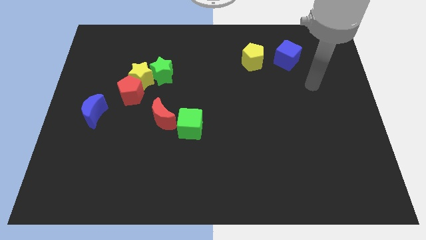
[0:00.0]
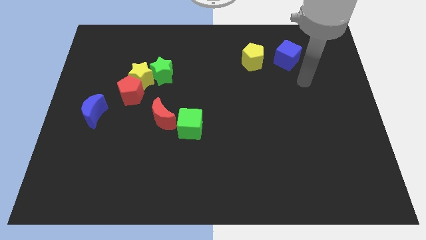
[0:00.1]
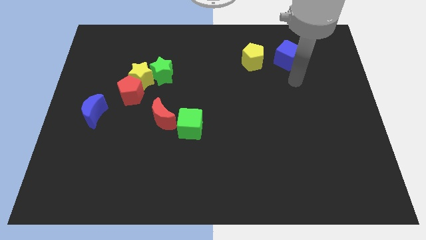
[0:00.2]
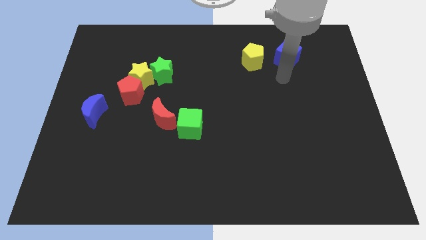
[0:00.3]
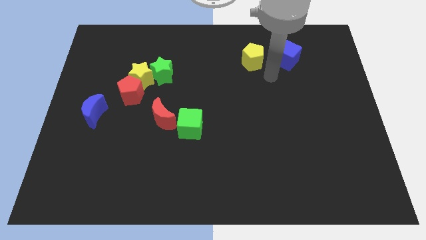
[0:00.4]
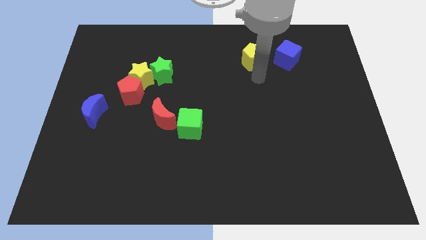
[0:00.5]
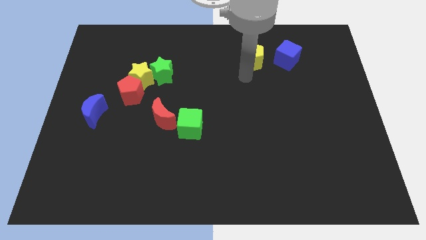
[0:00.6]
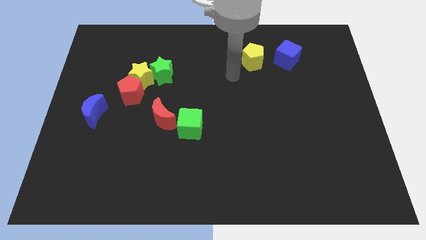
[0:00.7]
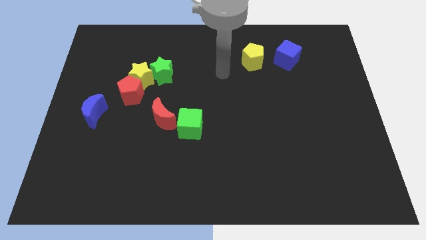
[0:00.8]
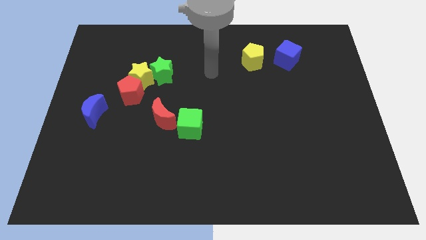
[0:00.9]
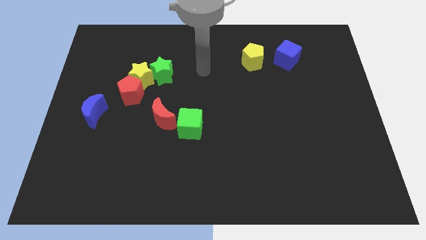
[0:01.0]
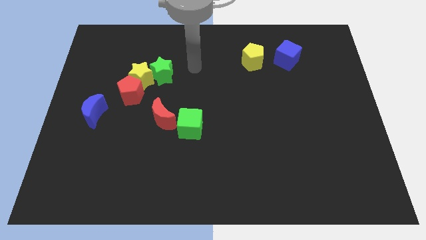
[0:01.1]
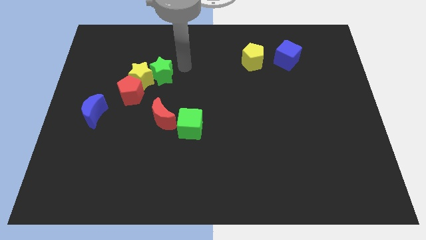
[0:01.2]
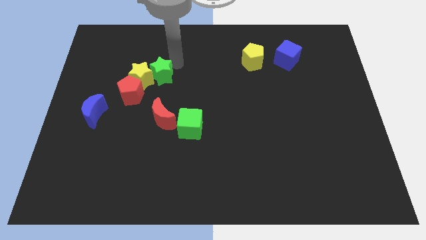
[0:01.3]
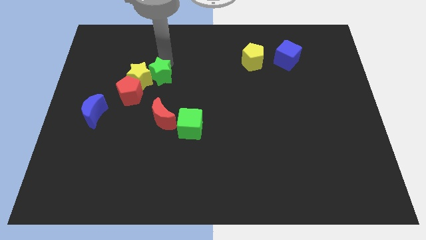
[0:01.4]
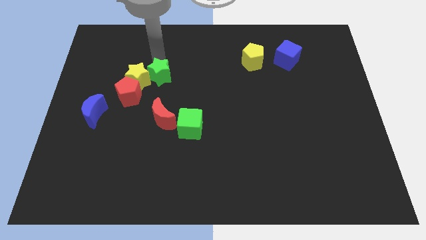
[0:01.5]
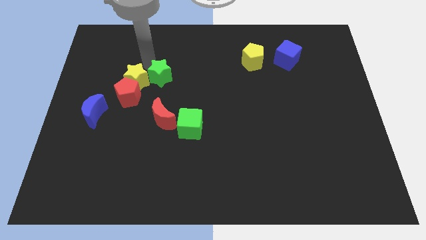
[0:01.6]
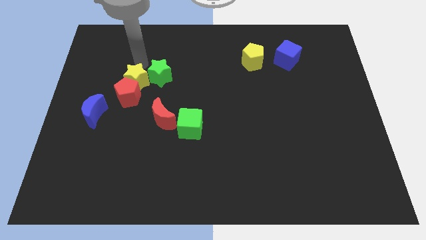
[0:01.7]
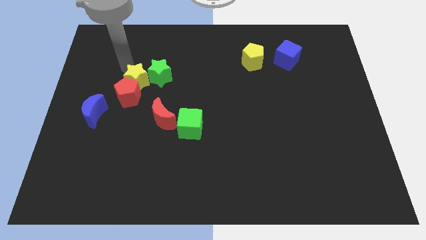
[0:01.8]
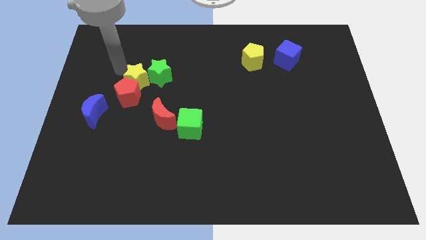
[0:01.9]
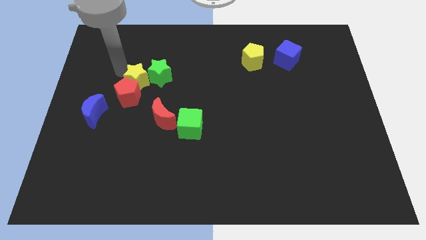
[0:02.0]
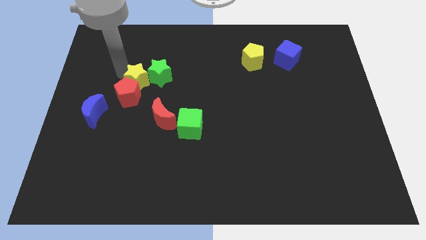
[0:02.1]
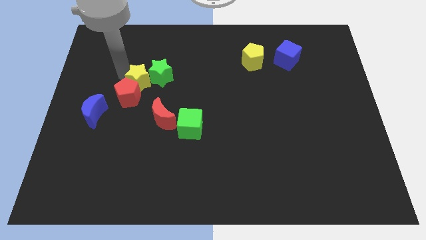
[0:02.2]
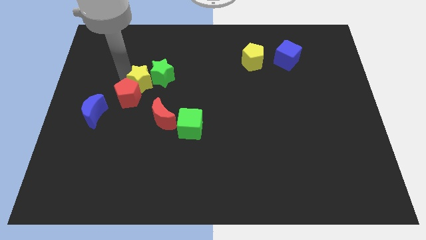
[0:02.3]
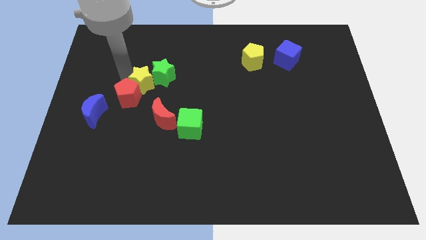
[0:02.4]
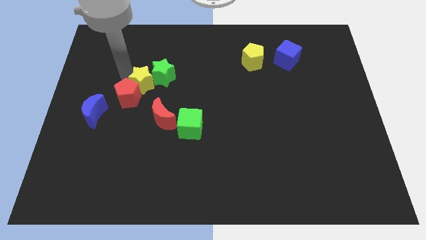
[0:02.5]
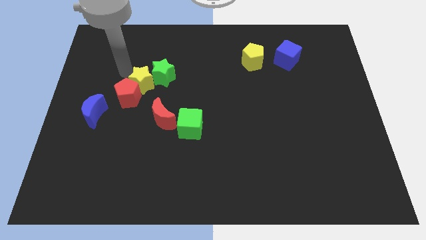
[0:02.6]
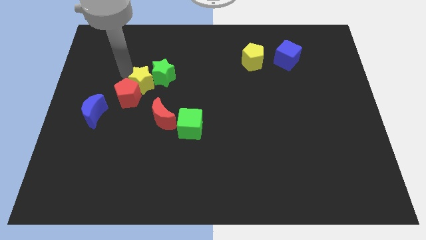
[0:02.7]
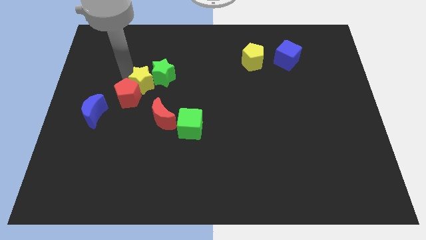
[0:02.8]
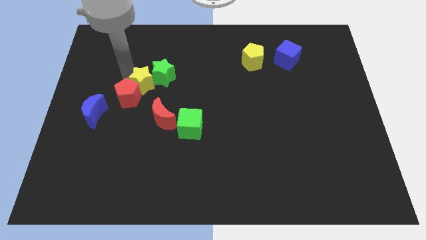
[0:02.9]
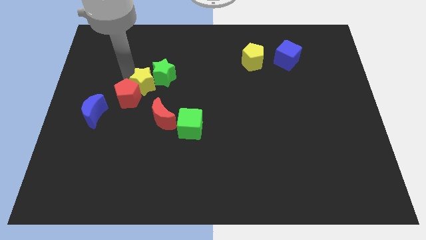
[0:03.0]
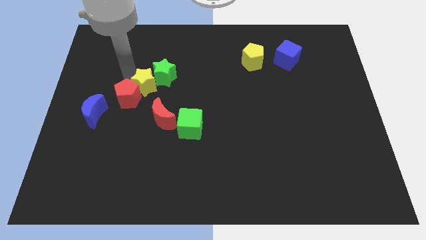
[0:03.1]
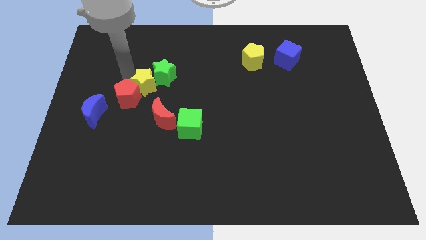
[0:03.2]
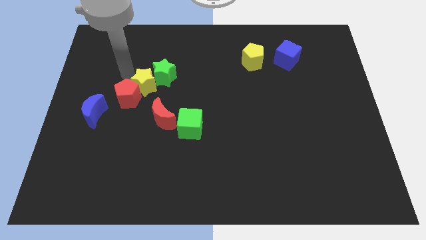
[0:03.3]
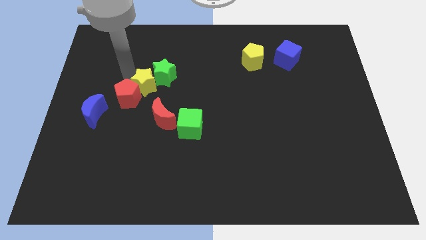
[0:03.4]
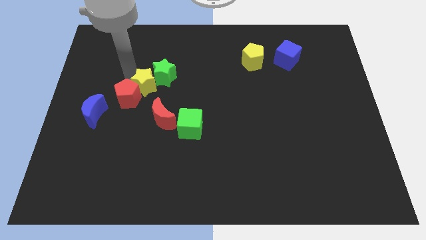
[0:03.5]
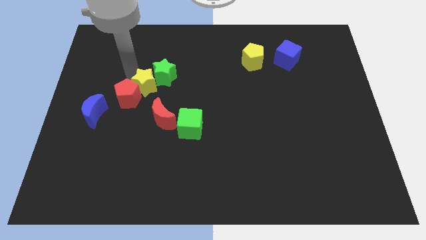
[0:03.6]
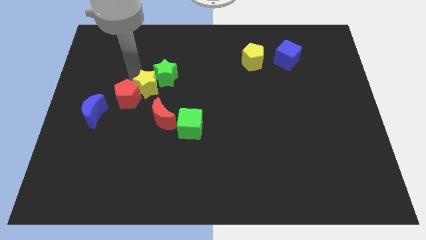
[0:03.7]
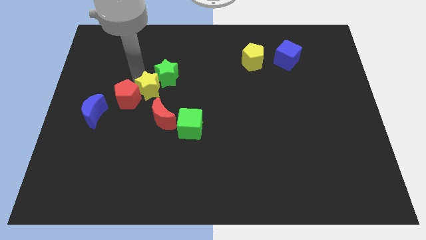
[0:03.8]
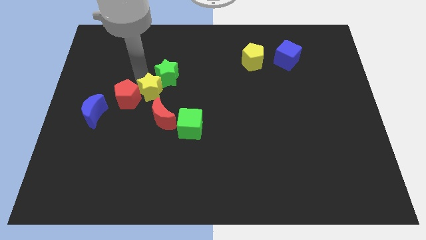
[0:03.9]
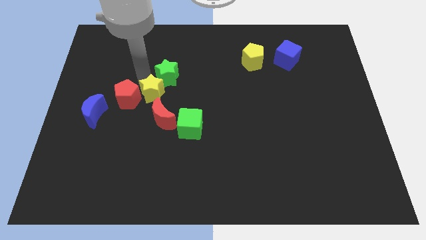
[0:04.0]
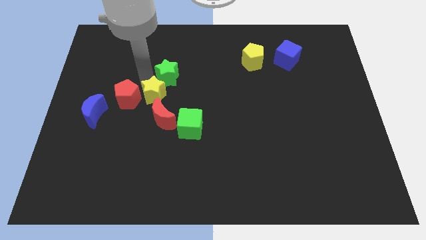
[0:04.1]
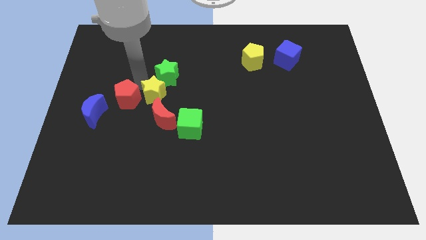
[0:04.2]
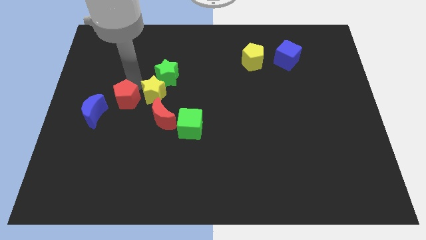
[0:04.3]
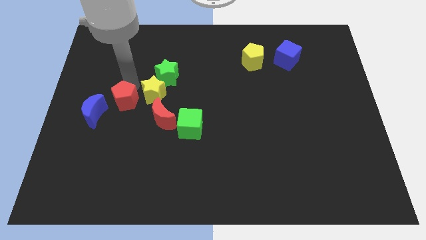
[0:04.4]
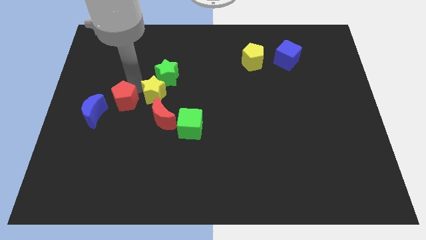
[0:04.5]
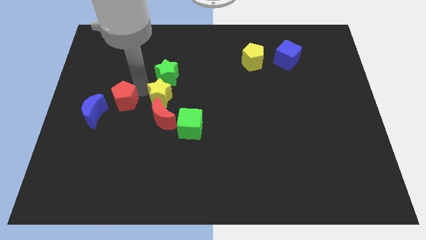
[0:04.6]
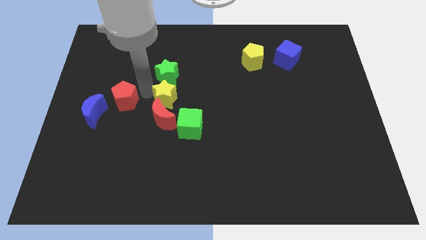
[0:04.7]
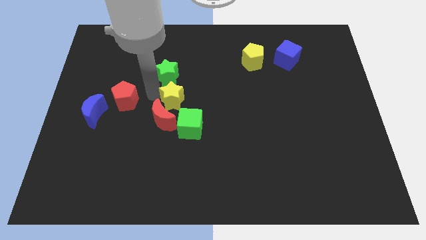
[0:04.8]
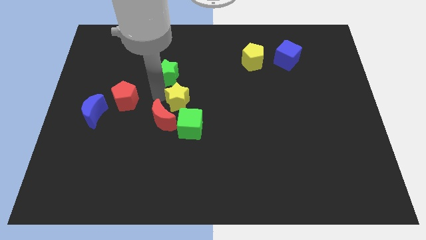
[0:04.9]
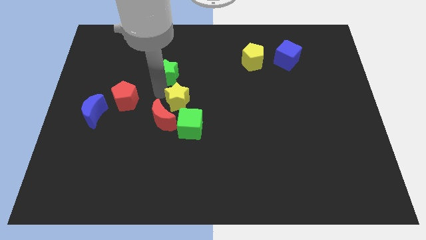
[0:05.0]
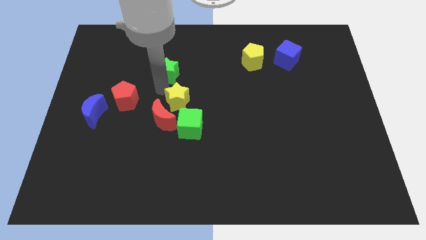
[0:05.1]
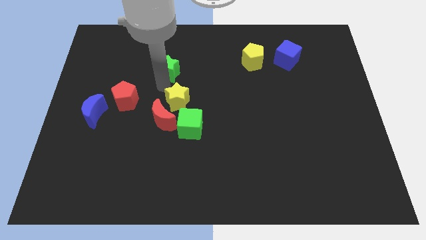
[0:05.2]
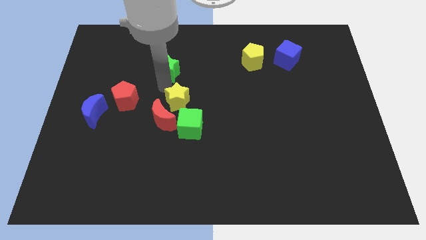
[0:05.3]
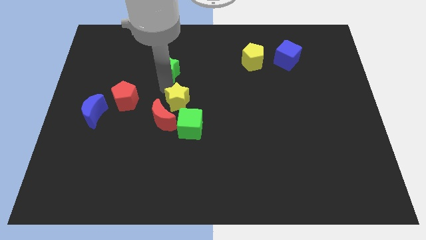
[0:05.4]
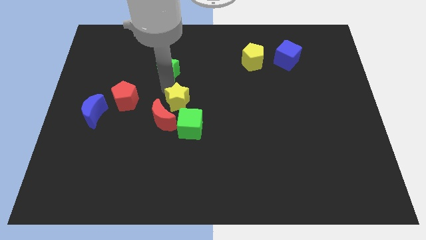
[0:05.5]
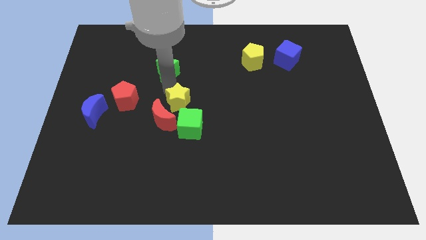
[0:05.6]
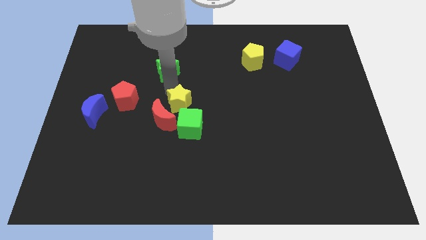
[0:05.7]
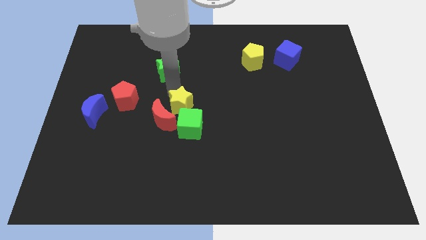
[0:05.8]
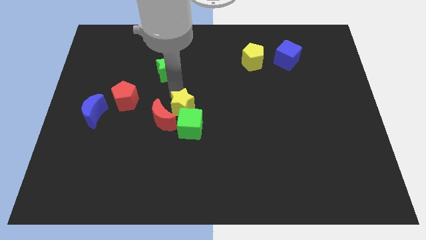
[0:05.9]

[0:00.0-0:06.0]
put the yellow star close to the green cube

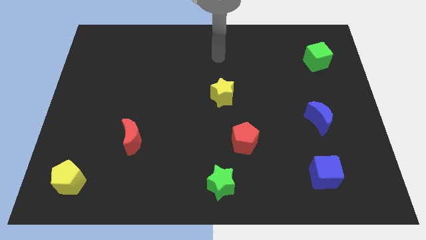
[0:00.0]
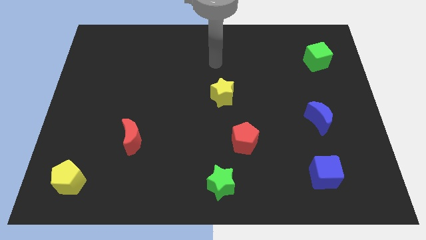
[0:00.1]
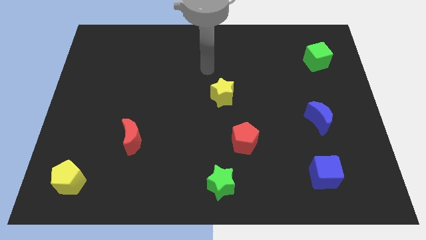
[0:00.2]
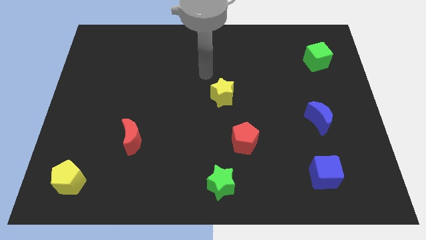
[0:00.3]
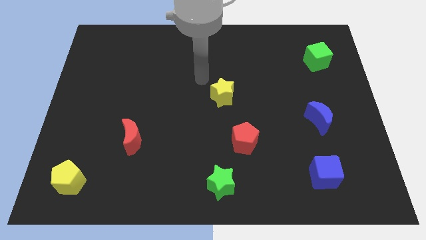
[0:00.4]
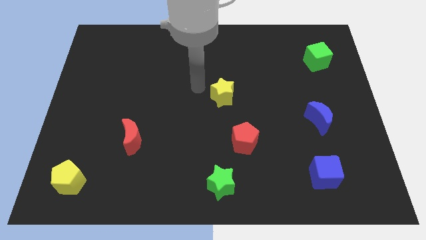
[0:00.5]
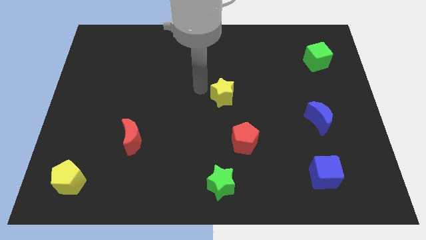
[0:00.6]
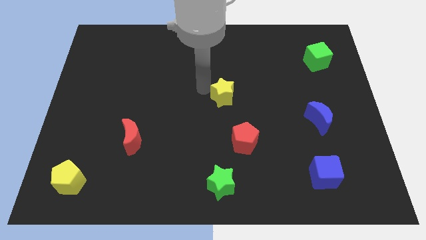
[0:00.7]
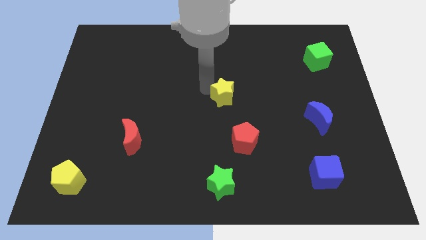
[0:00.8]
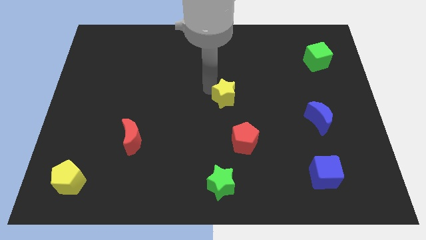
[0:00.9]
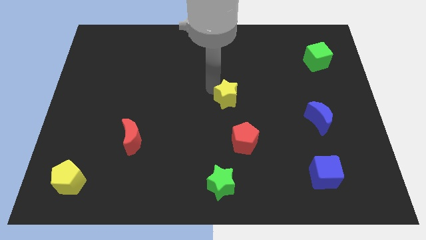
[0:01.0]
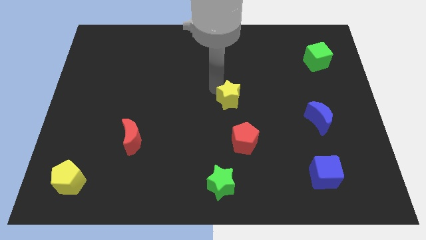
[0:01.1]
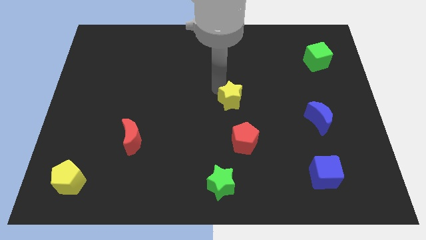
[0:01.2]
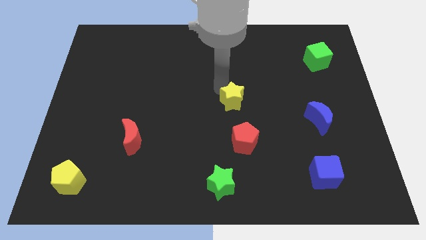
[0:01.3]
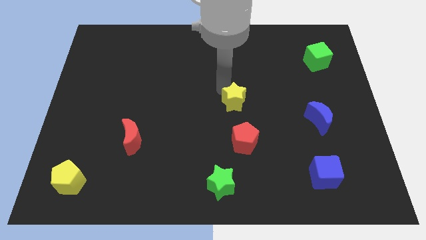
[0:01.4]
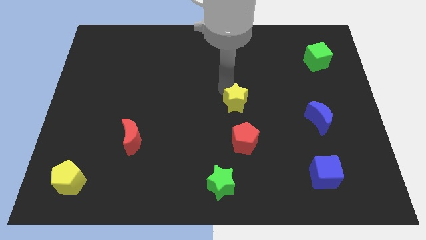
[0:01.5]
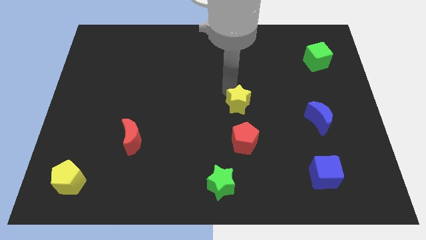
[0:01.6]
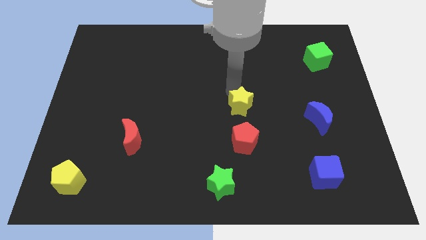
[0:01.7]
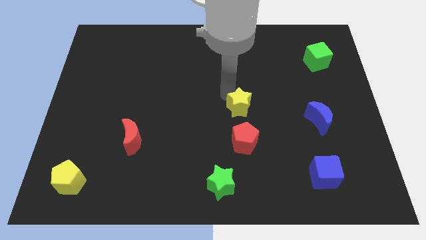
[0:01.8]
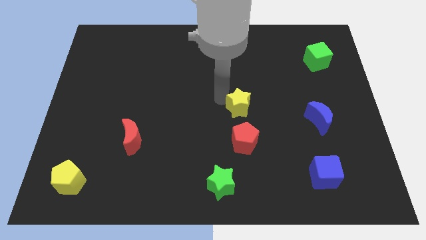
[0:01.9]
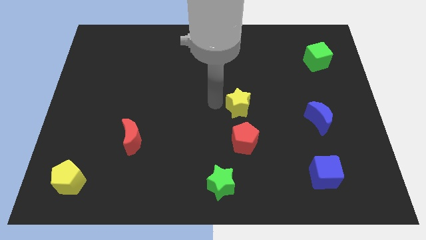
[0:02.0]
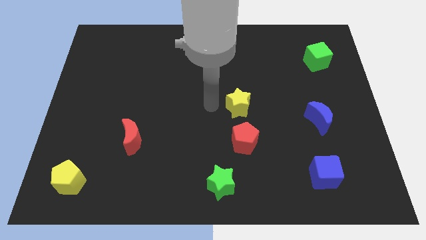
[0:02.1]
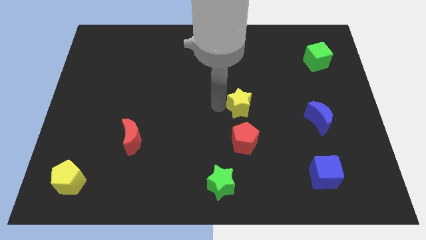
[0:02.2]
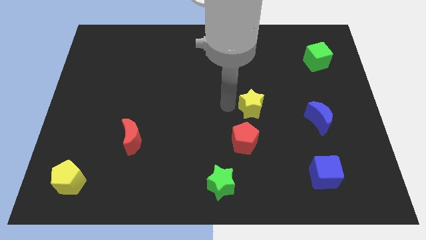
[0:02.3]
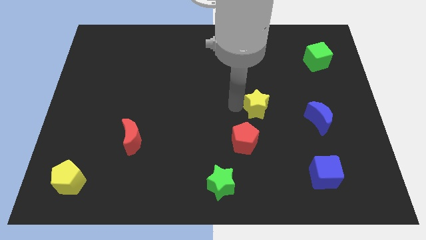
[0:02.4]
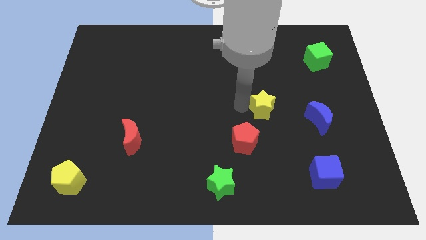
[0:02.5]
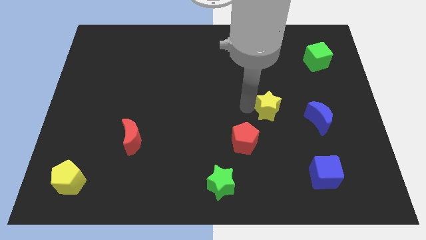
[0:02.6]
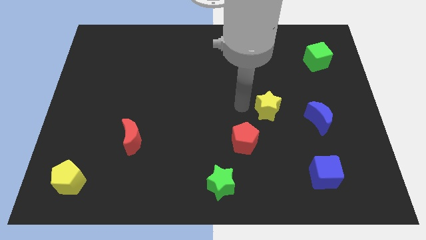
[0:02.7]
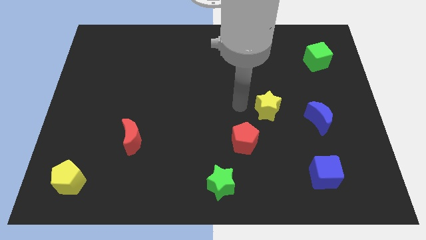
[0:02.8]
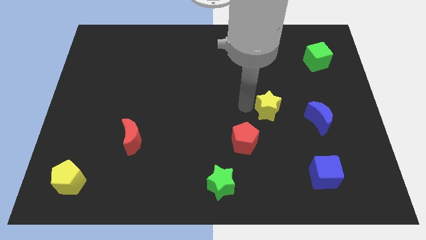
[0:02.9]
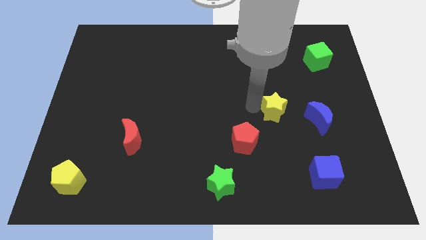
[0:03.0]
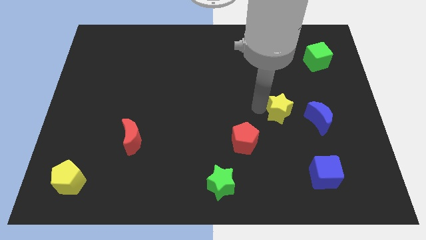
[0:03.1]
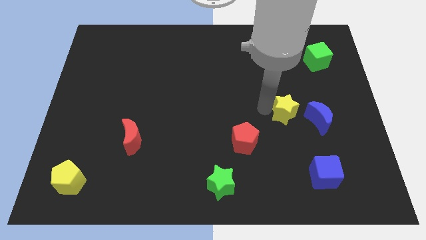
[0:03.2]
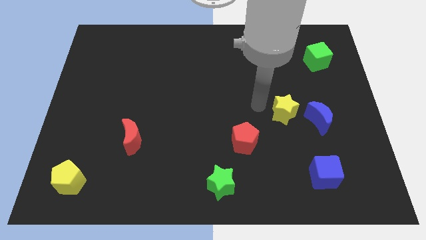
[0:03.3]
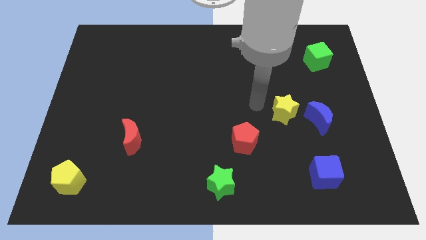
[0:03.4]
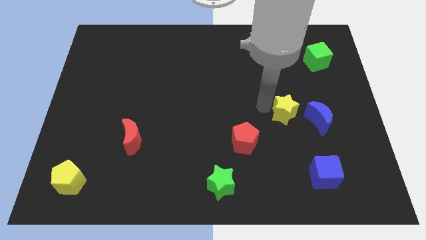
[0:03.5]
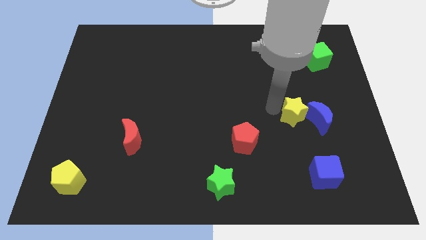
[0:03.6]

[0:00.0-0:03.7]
slide the yellow star next to the blue moon
